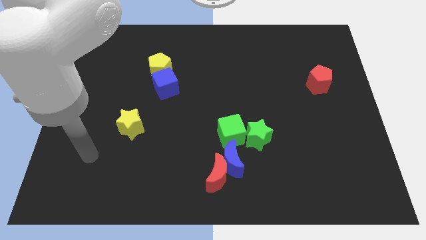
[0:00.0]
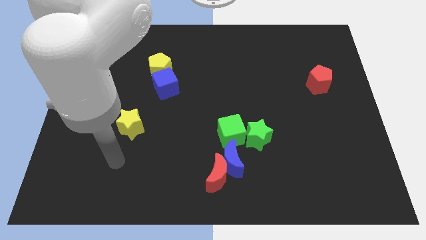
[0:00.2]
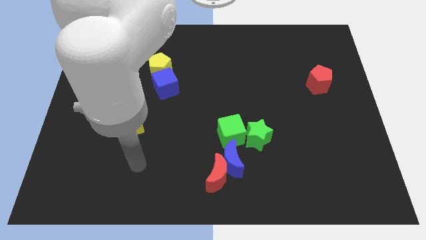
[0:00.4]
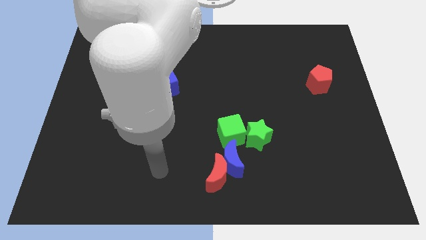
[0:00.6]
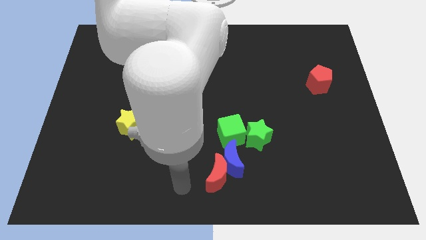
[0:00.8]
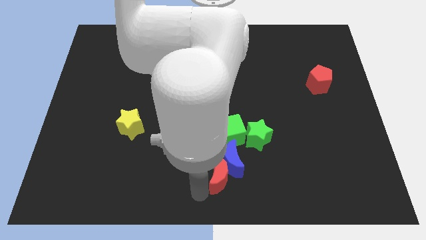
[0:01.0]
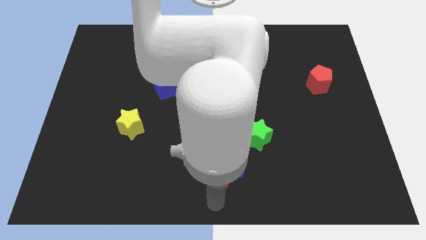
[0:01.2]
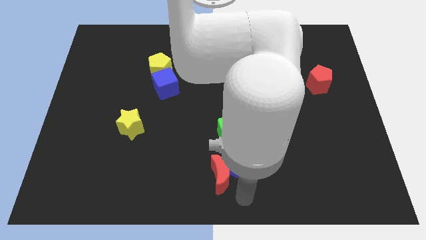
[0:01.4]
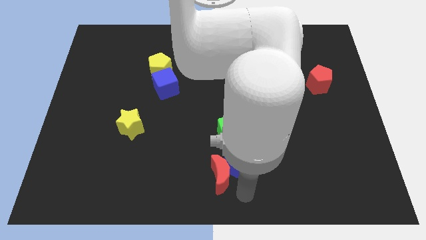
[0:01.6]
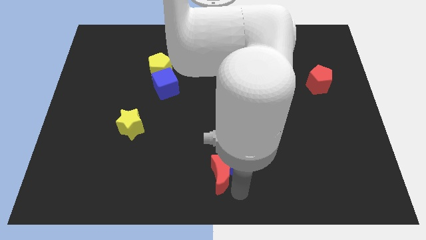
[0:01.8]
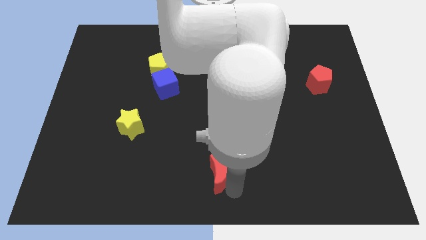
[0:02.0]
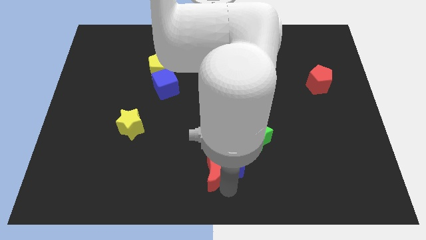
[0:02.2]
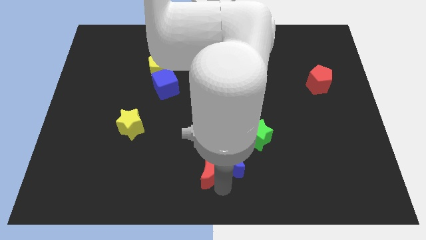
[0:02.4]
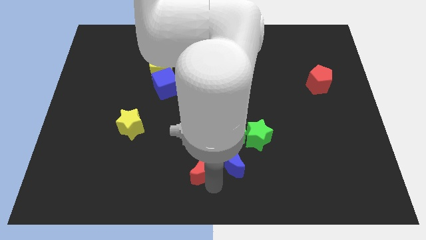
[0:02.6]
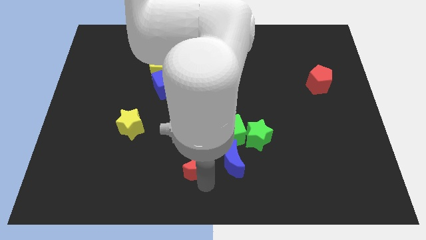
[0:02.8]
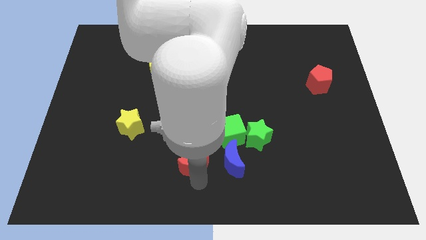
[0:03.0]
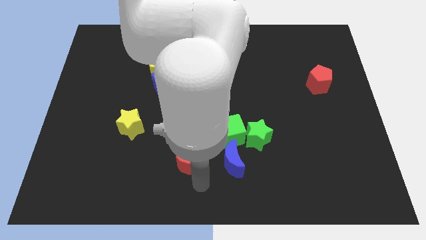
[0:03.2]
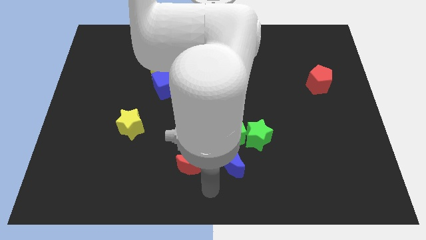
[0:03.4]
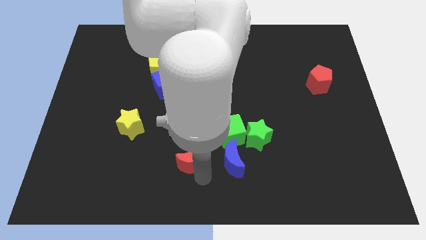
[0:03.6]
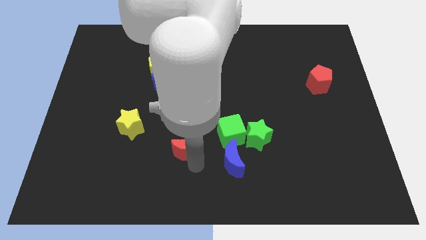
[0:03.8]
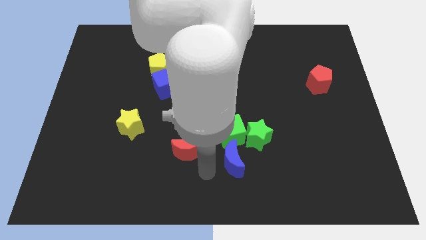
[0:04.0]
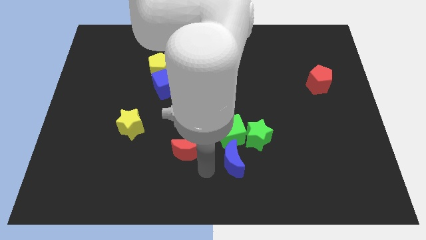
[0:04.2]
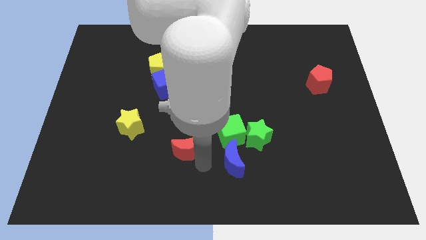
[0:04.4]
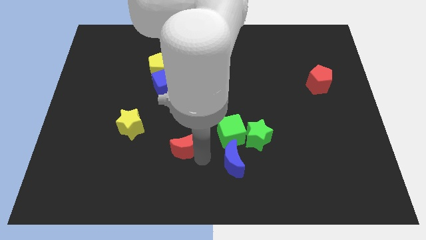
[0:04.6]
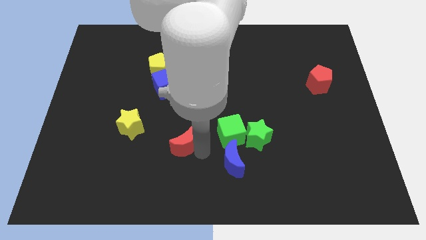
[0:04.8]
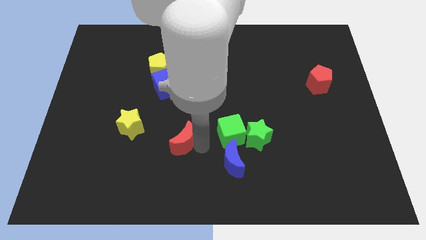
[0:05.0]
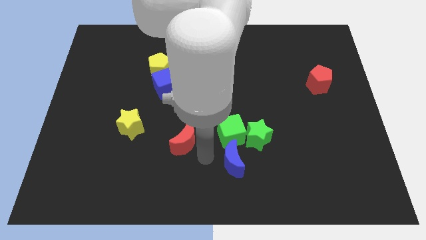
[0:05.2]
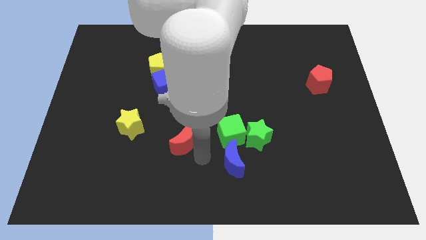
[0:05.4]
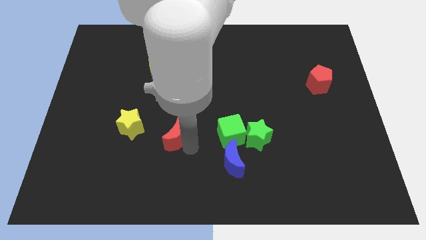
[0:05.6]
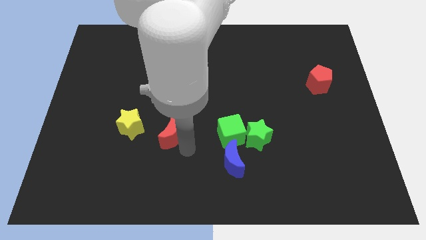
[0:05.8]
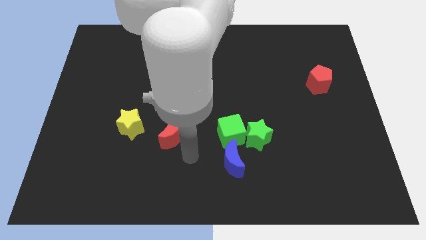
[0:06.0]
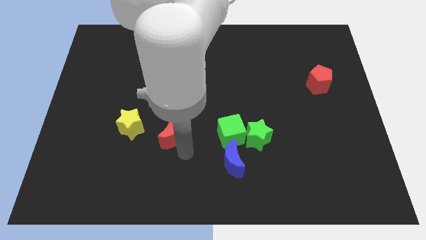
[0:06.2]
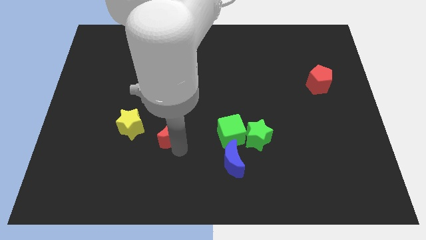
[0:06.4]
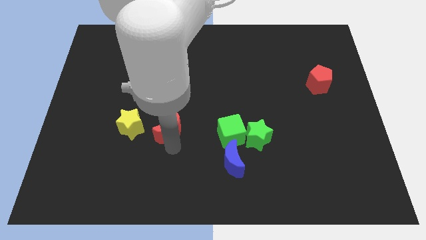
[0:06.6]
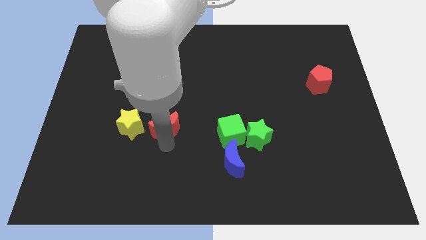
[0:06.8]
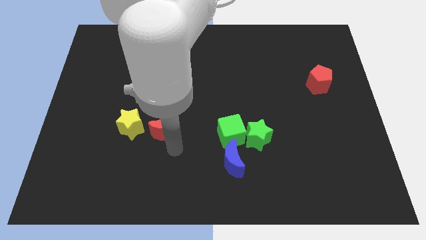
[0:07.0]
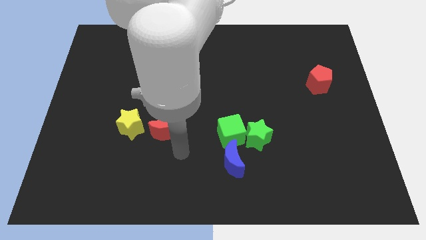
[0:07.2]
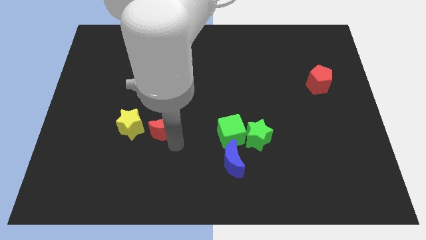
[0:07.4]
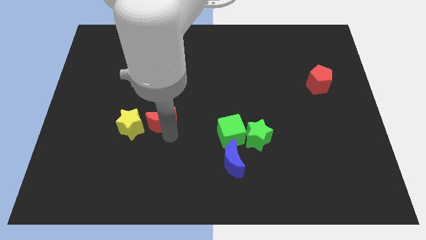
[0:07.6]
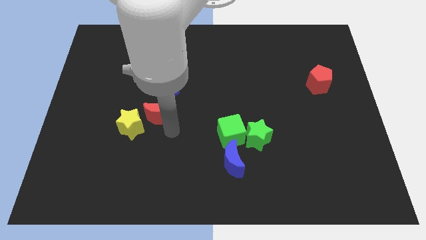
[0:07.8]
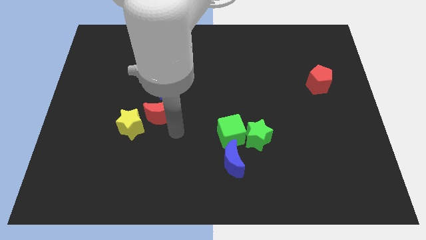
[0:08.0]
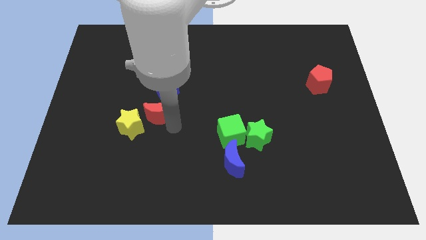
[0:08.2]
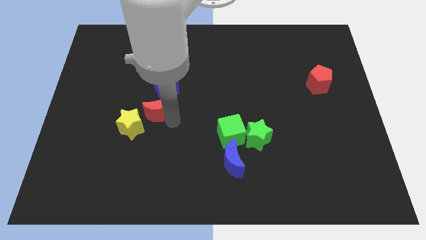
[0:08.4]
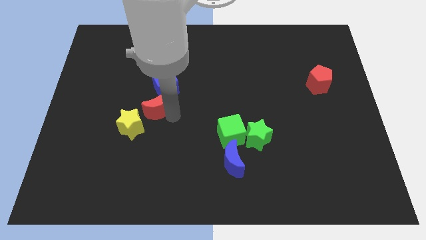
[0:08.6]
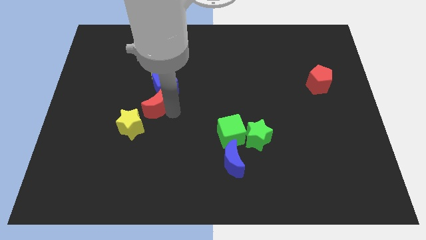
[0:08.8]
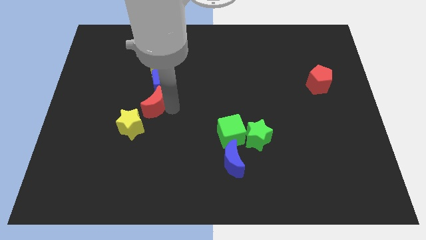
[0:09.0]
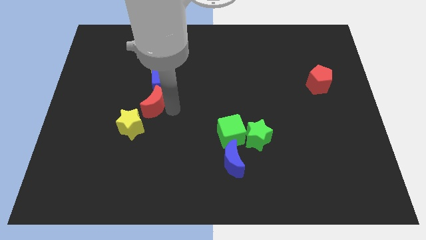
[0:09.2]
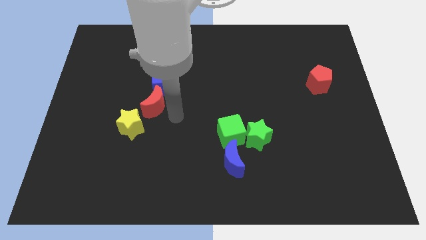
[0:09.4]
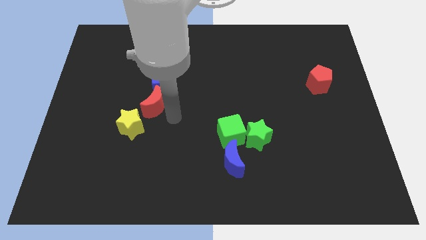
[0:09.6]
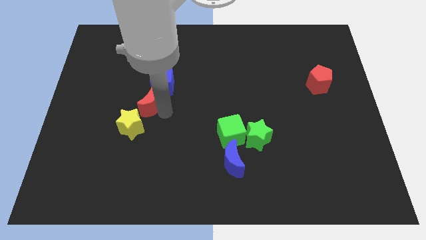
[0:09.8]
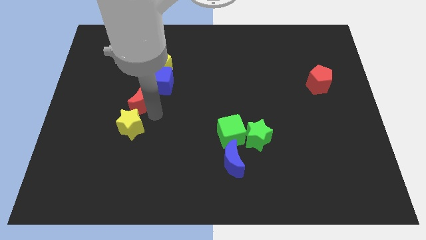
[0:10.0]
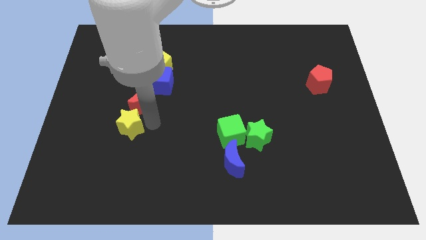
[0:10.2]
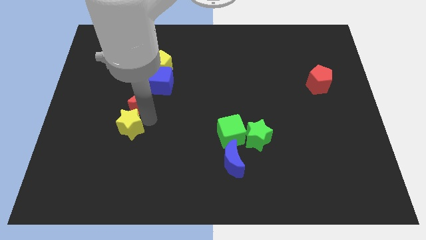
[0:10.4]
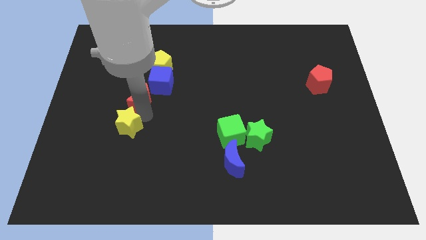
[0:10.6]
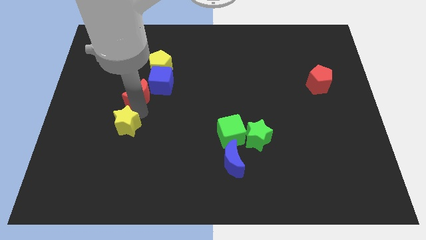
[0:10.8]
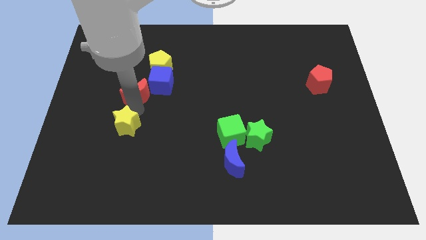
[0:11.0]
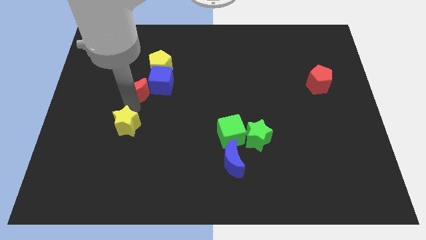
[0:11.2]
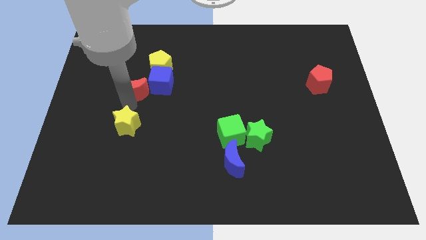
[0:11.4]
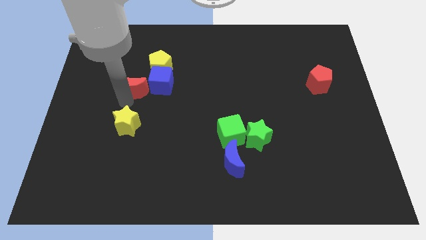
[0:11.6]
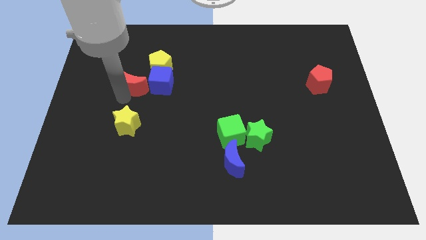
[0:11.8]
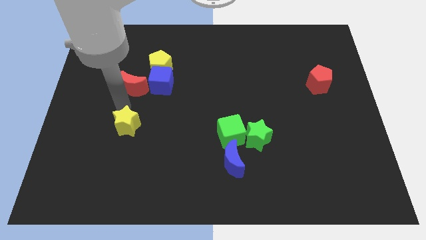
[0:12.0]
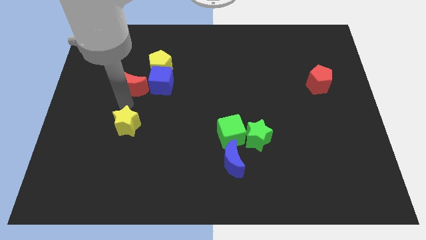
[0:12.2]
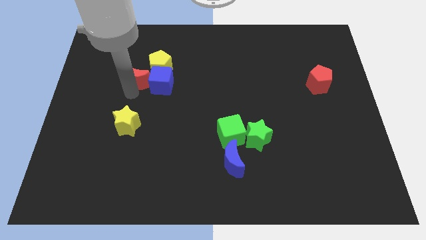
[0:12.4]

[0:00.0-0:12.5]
put the red moon to the top left of the blue cube
